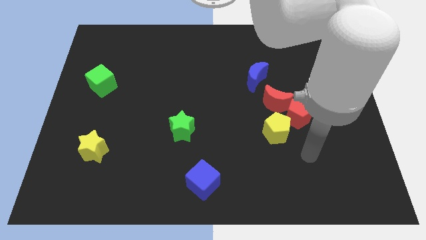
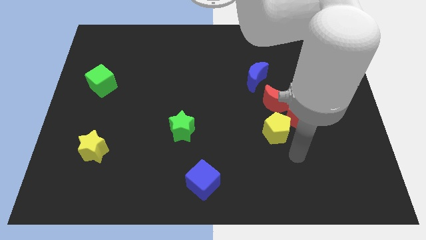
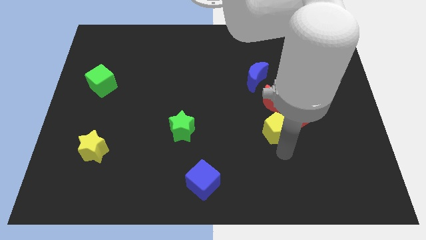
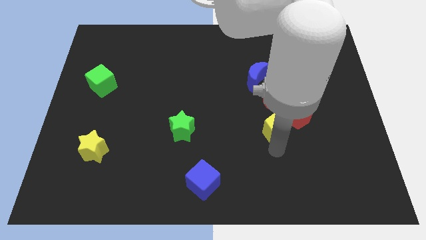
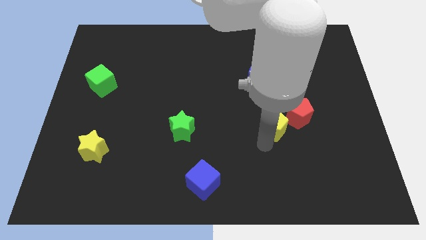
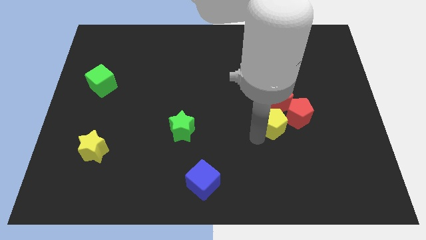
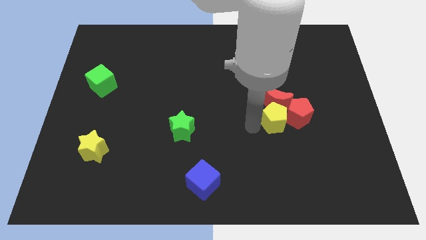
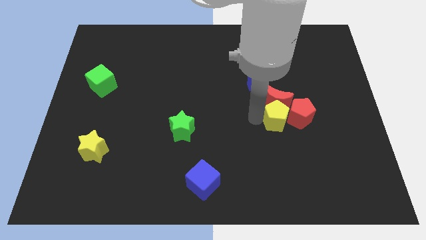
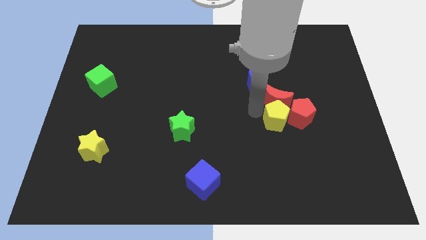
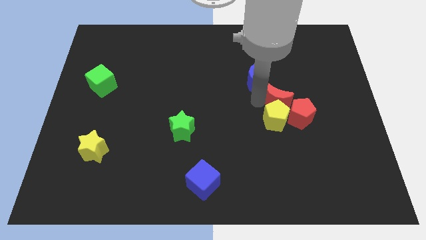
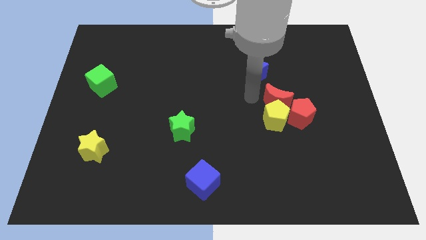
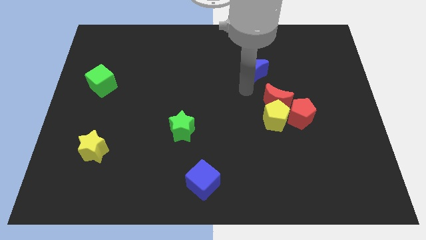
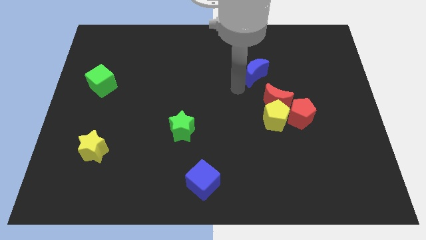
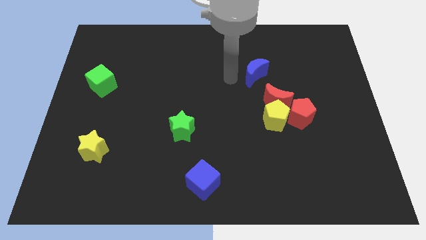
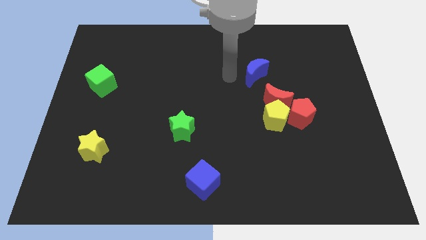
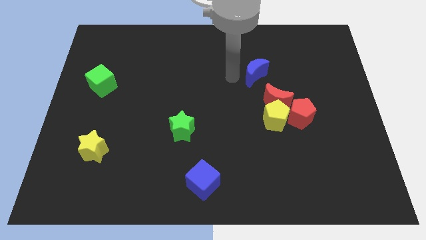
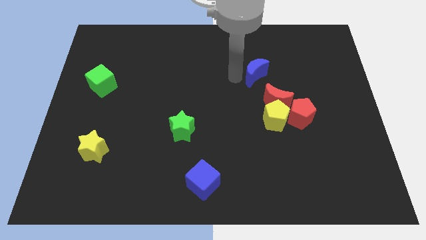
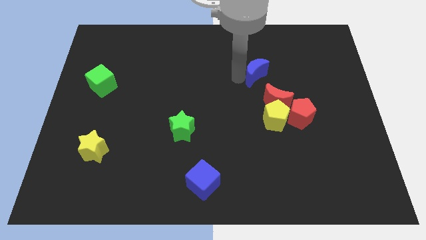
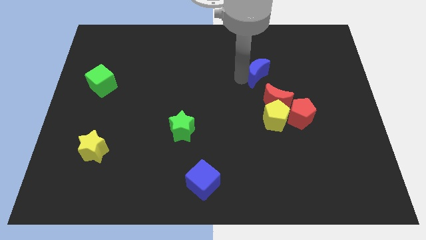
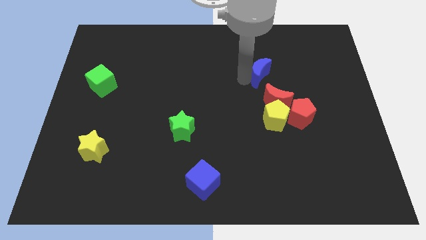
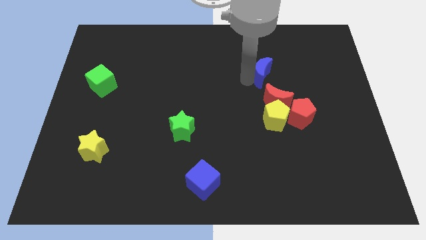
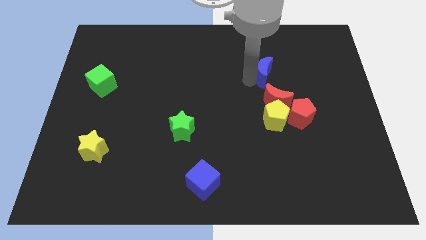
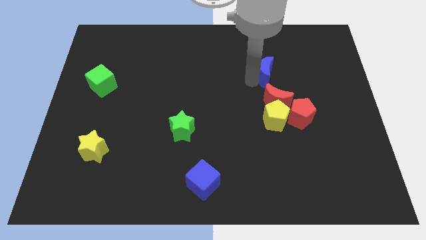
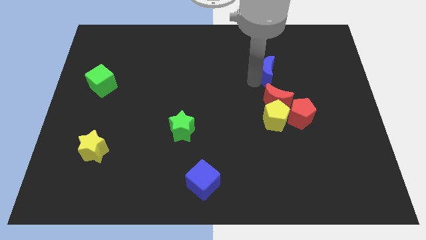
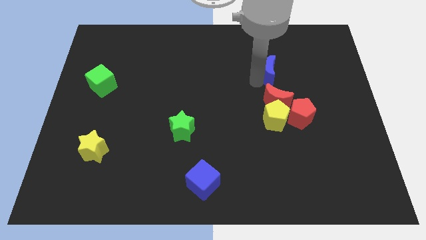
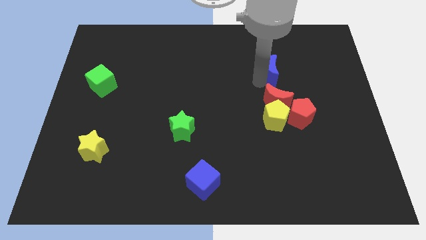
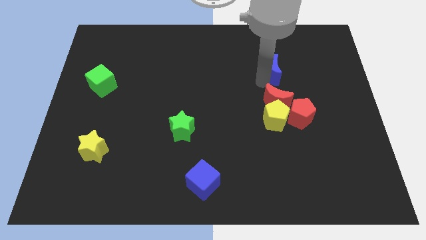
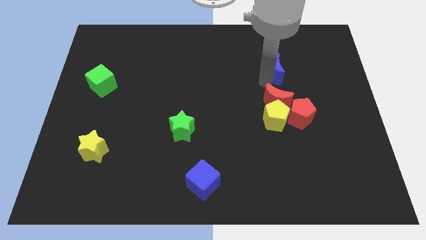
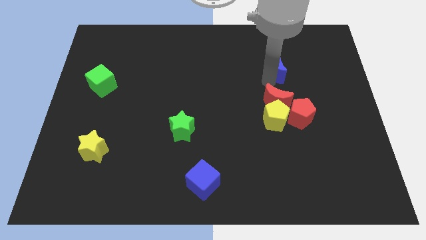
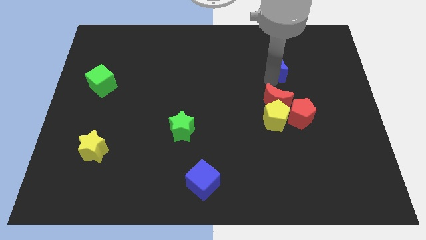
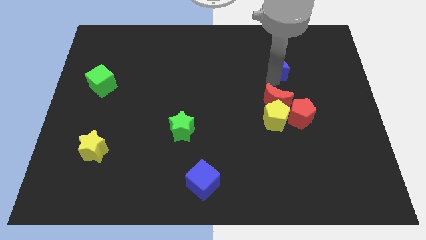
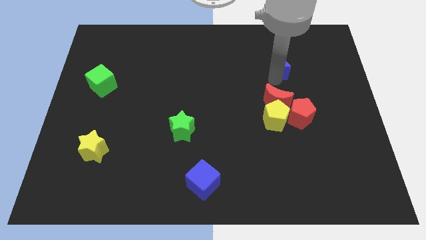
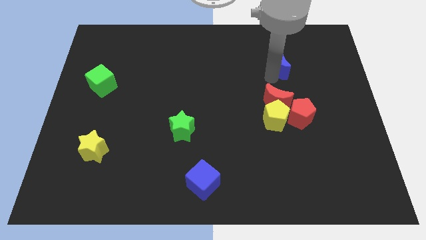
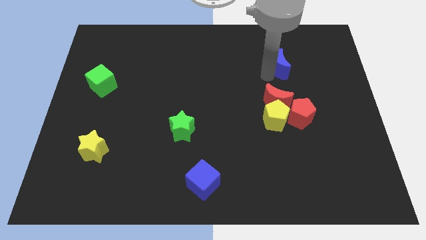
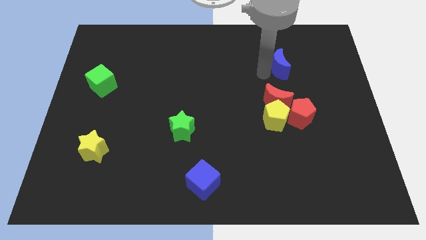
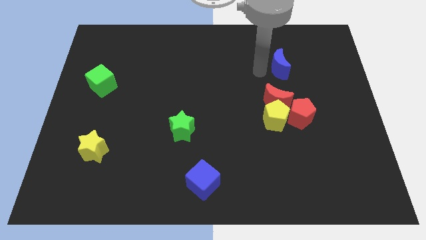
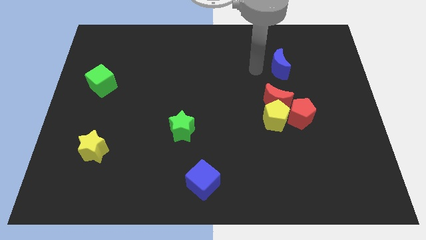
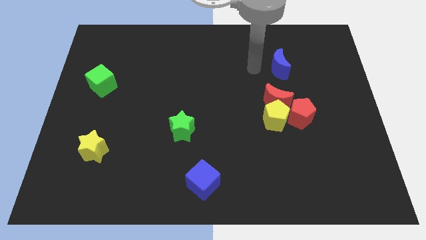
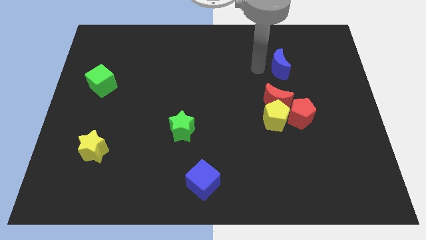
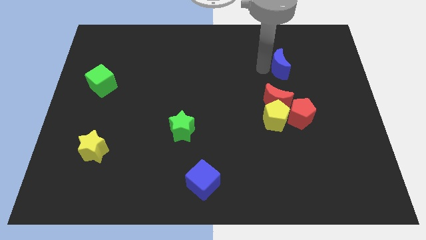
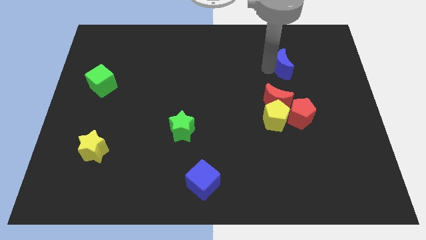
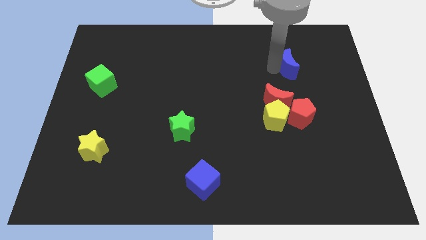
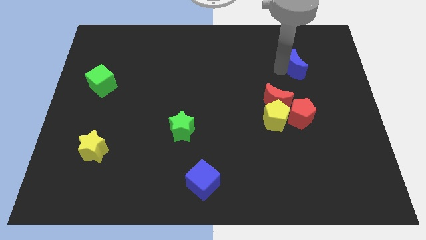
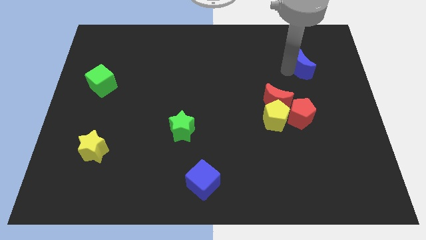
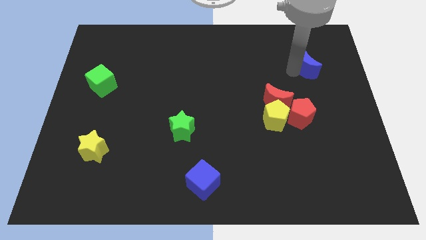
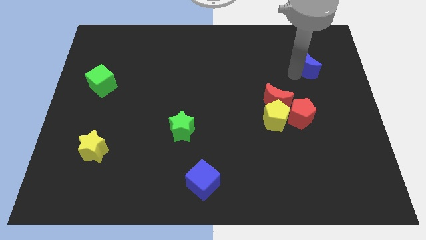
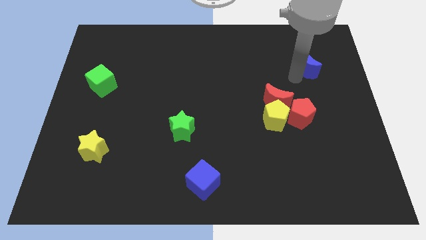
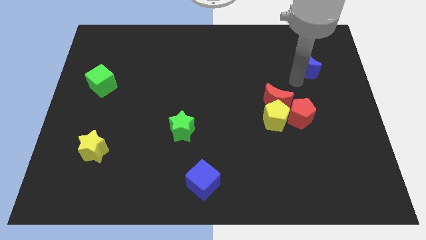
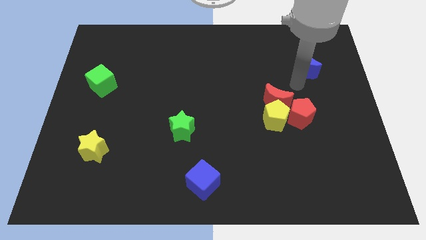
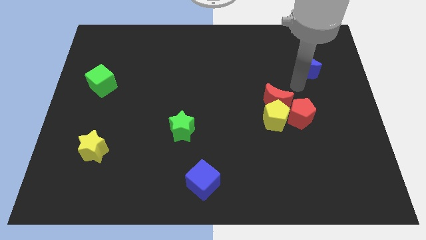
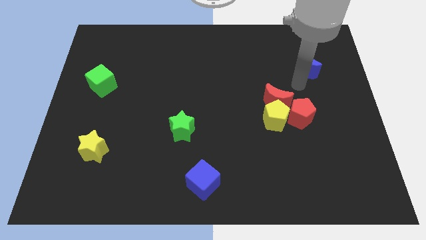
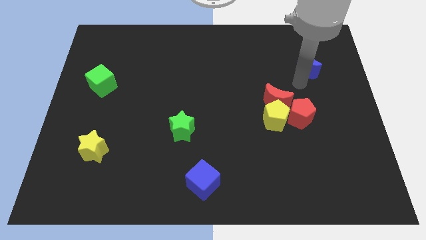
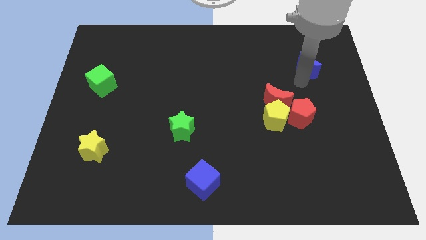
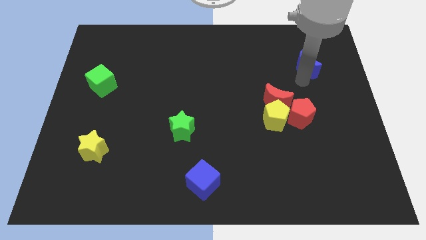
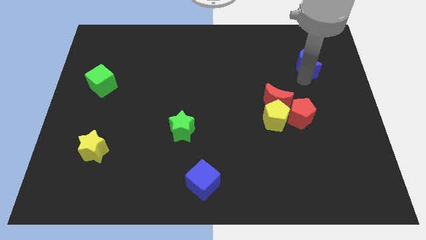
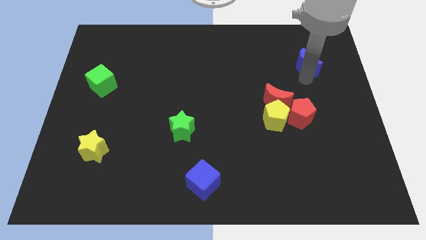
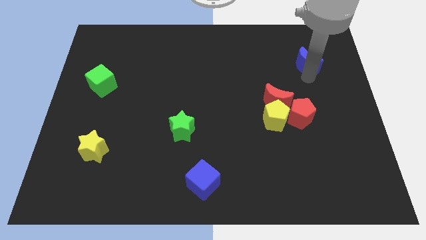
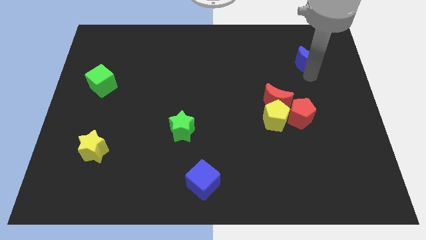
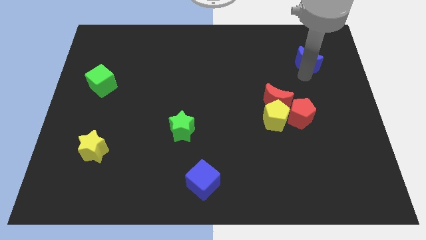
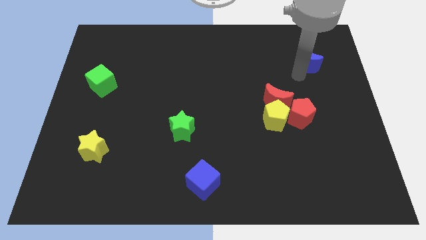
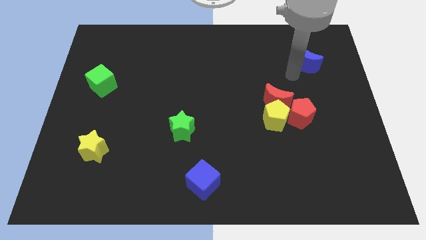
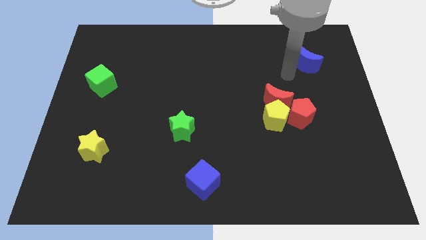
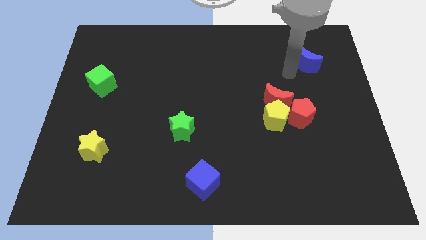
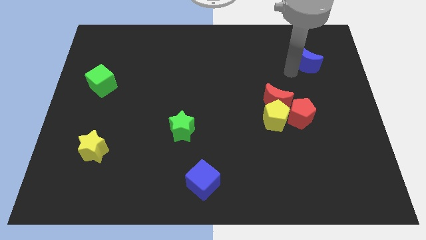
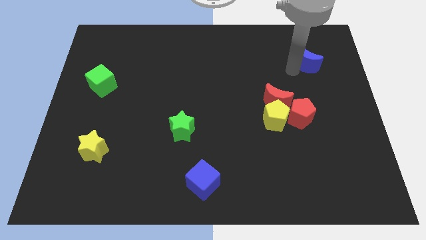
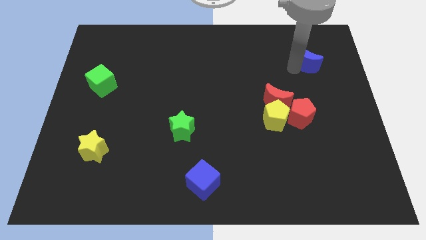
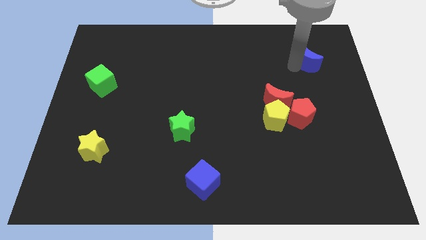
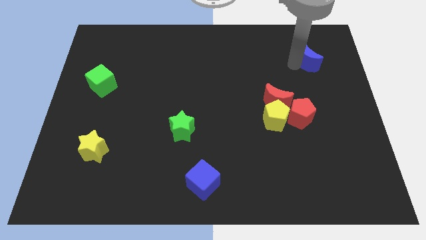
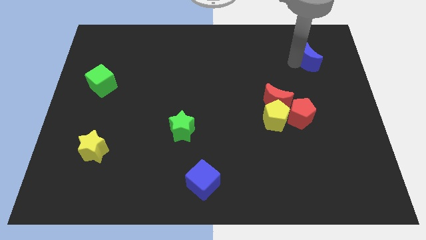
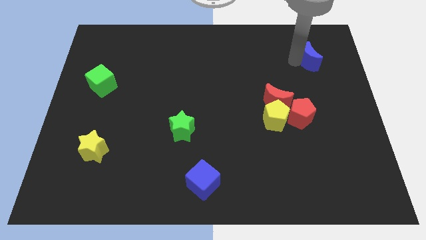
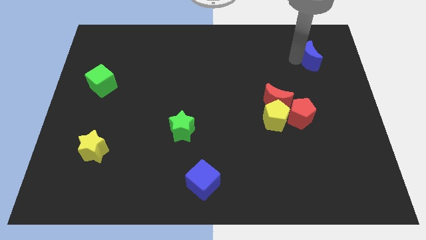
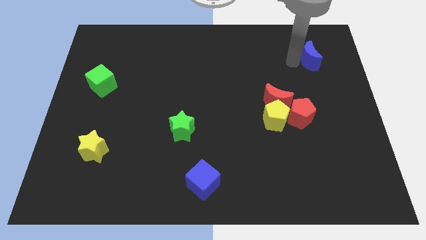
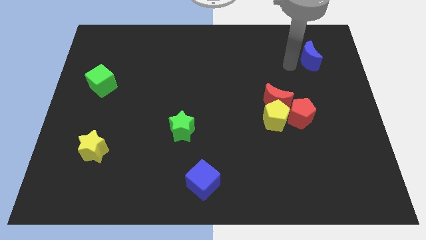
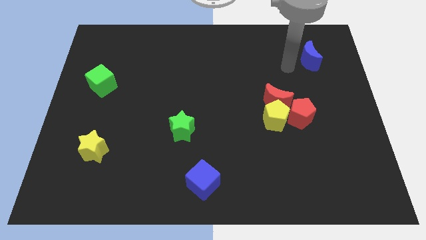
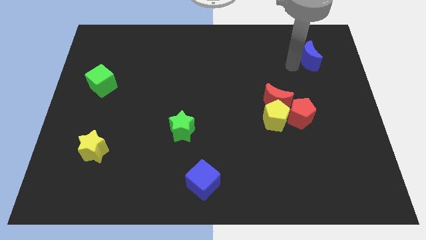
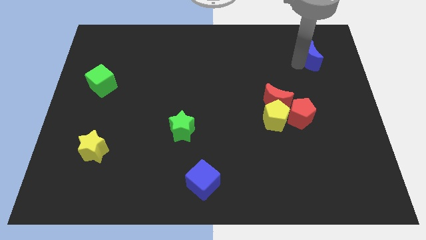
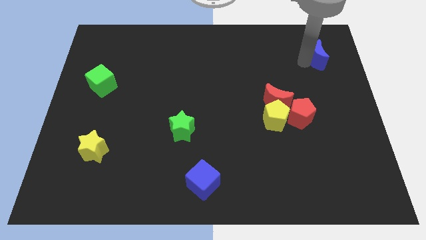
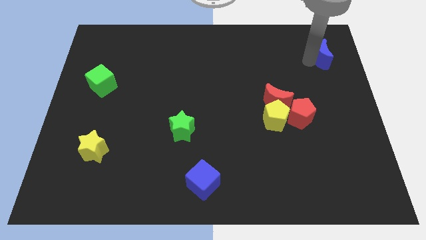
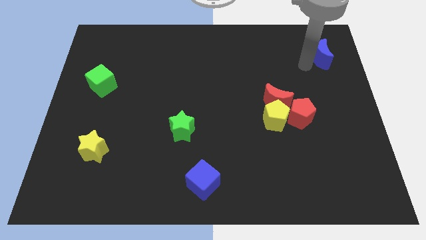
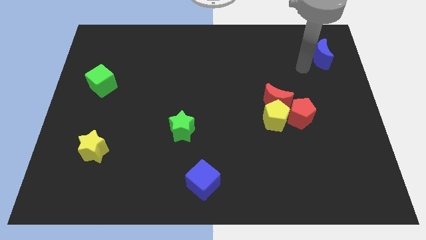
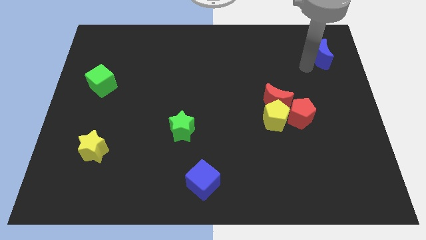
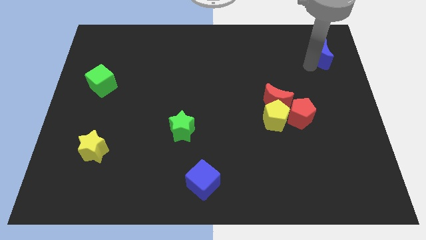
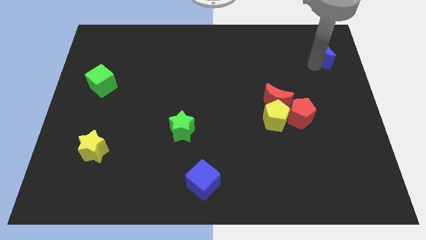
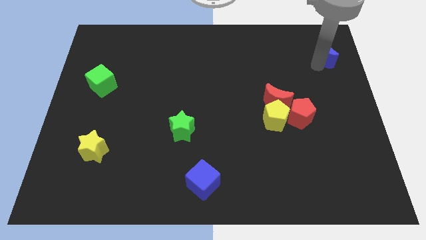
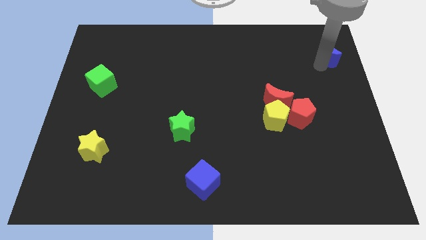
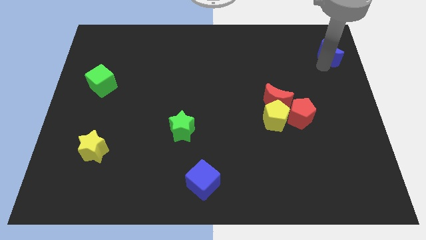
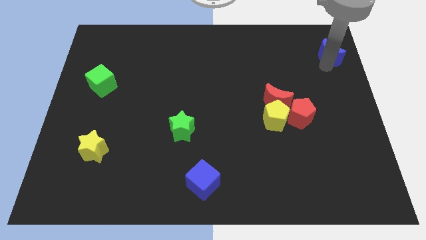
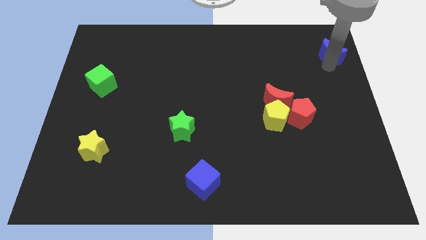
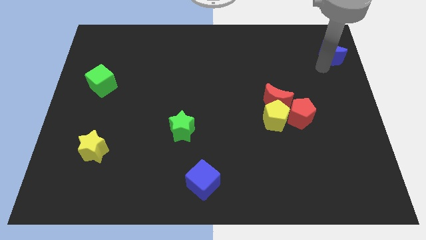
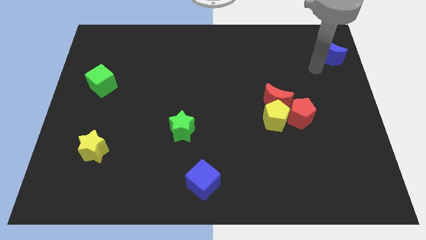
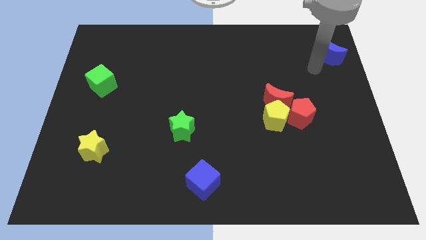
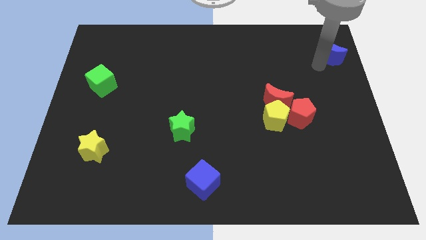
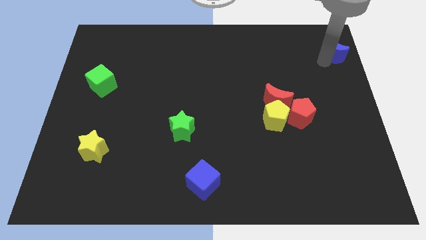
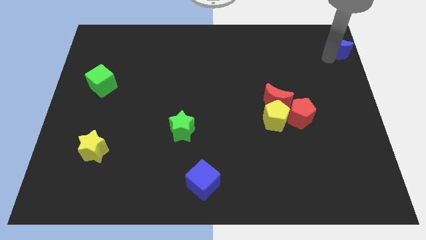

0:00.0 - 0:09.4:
push the blue moon to the upper right corner
